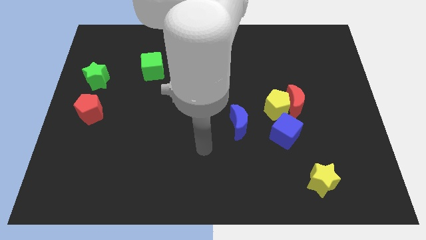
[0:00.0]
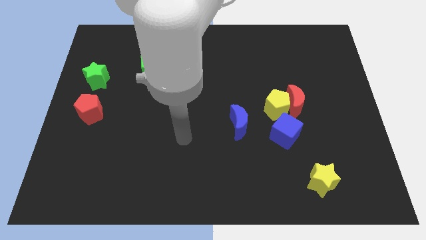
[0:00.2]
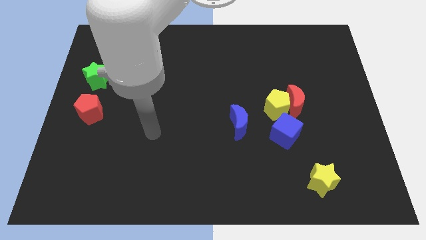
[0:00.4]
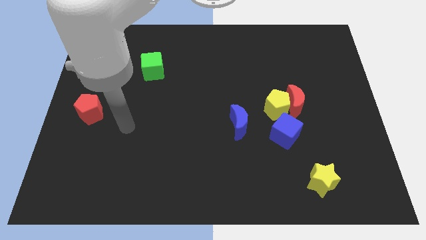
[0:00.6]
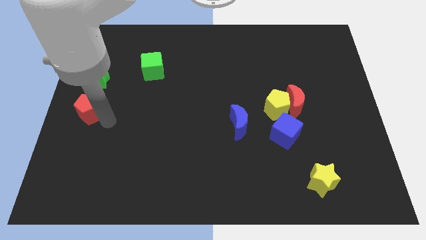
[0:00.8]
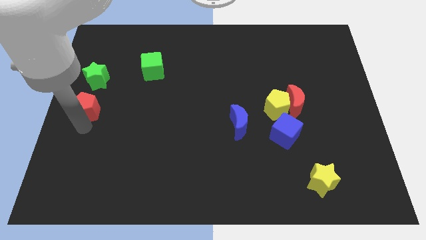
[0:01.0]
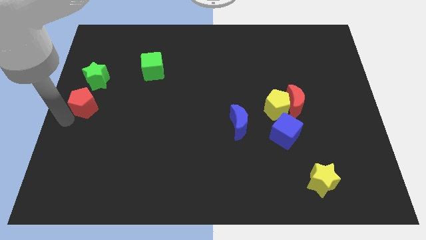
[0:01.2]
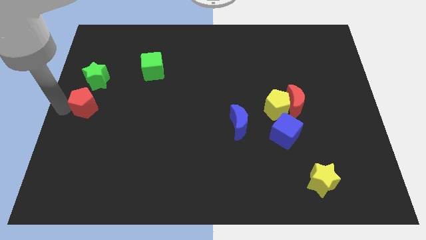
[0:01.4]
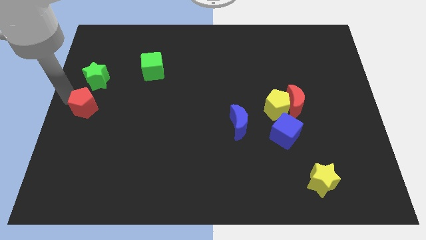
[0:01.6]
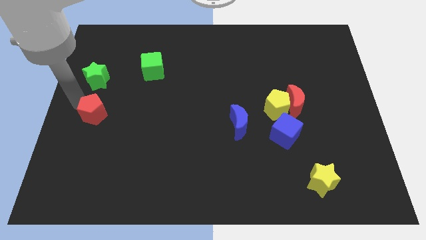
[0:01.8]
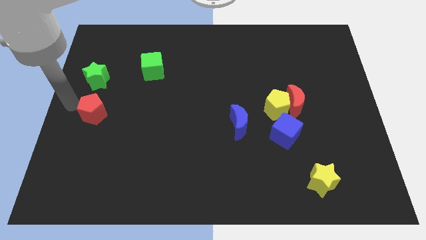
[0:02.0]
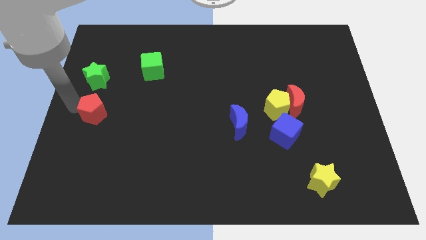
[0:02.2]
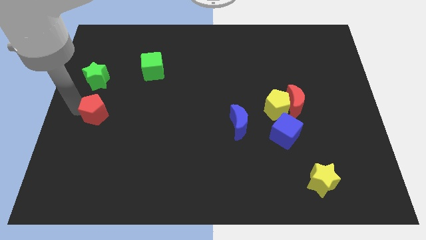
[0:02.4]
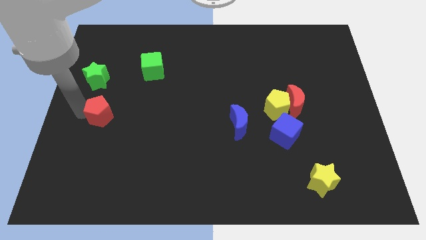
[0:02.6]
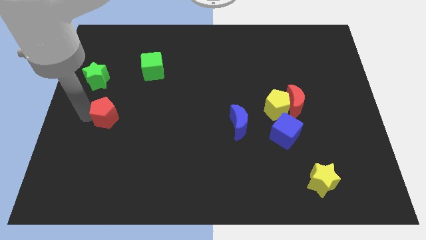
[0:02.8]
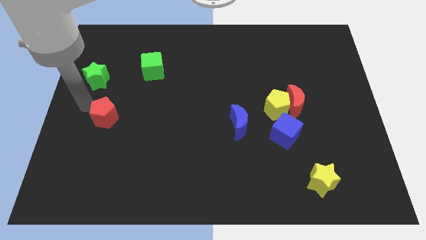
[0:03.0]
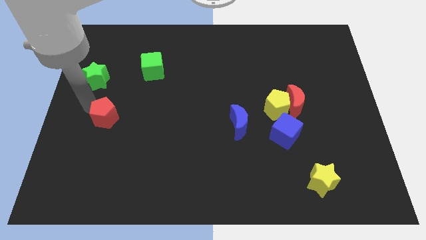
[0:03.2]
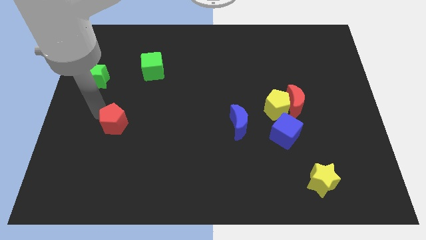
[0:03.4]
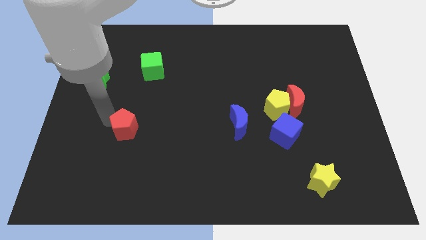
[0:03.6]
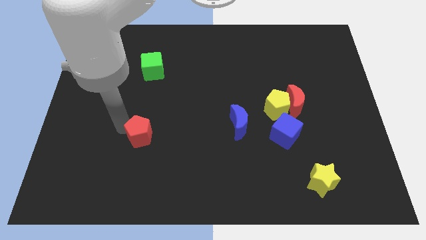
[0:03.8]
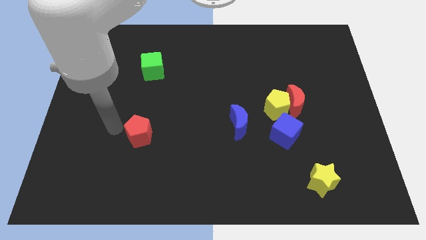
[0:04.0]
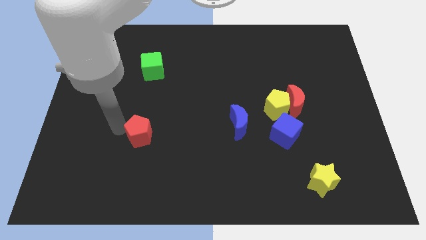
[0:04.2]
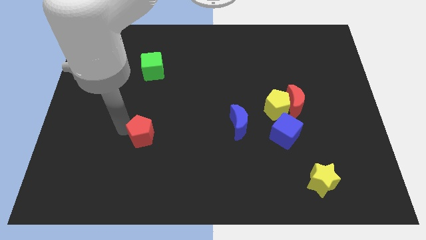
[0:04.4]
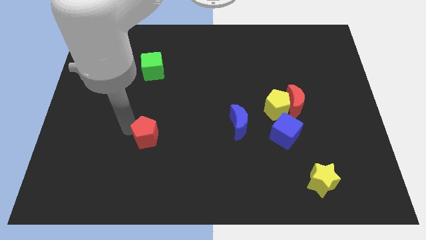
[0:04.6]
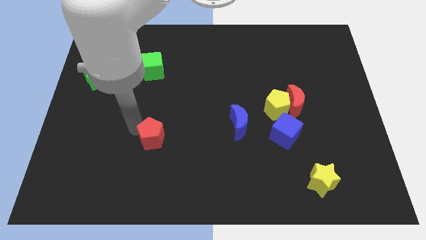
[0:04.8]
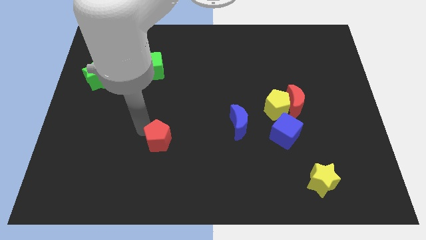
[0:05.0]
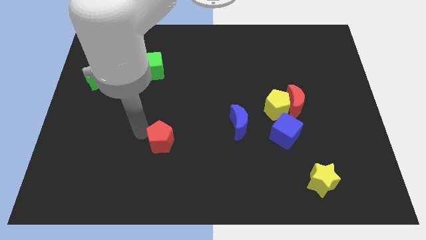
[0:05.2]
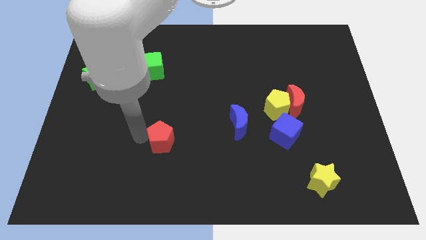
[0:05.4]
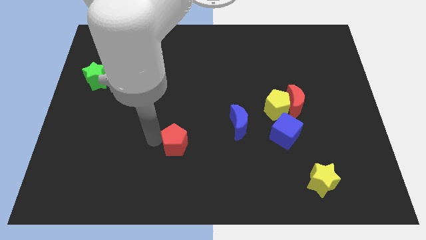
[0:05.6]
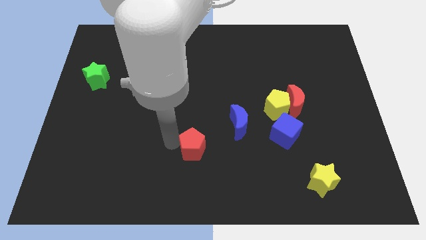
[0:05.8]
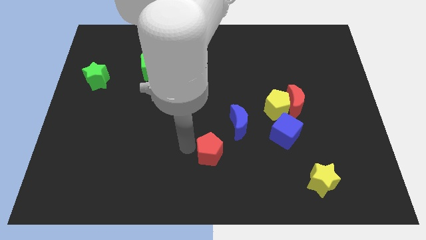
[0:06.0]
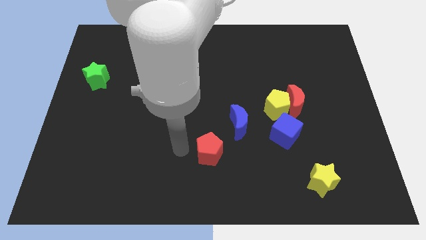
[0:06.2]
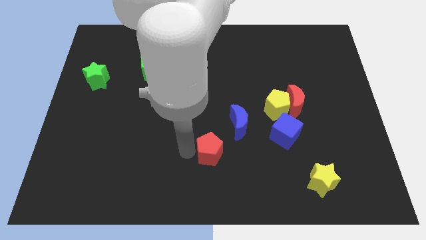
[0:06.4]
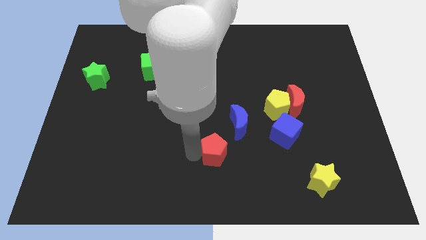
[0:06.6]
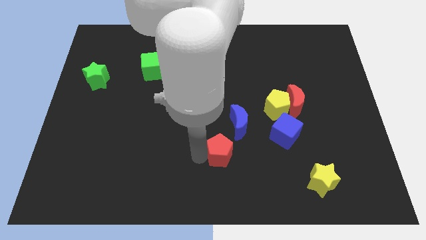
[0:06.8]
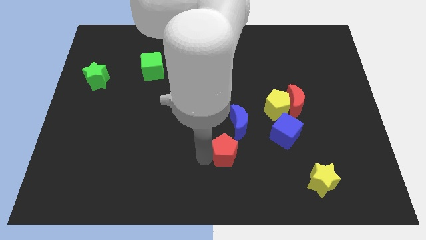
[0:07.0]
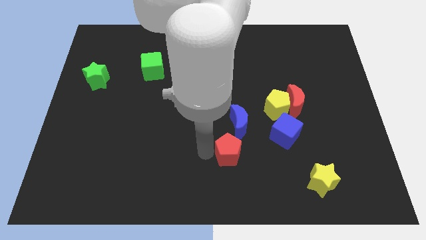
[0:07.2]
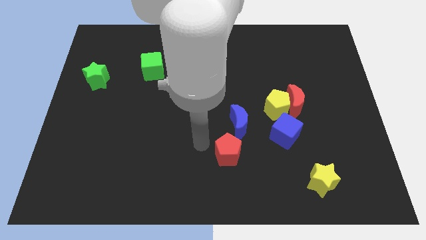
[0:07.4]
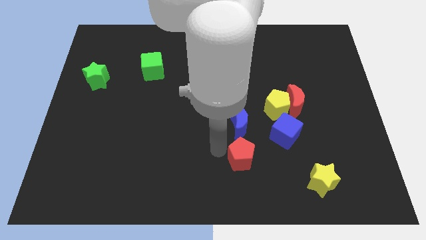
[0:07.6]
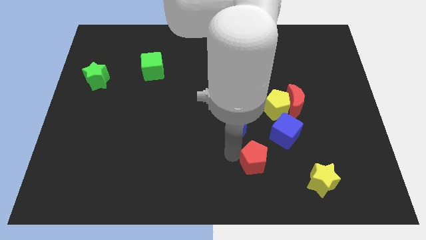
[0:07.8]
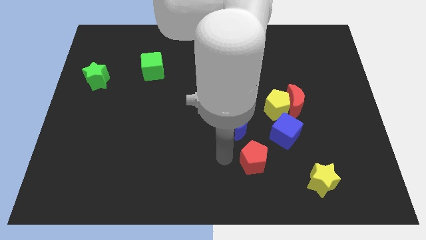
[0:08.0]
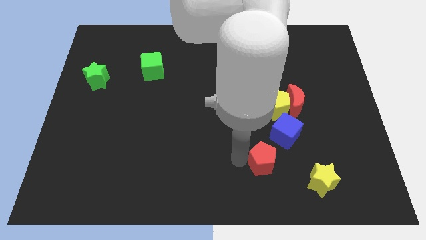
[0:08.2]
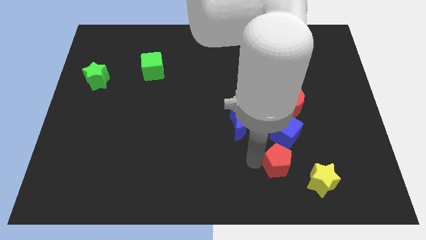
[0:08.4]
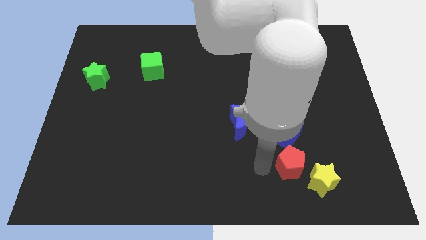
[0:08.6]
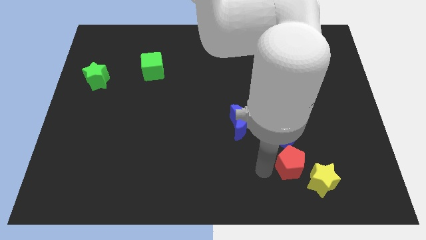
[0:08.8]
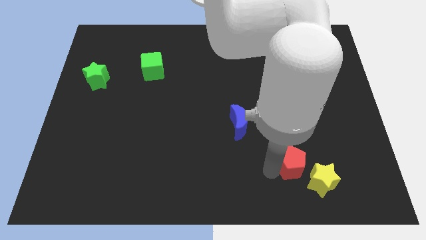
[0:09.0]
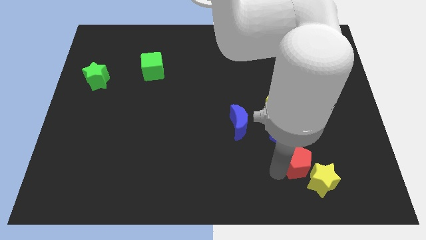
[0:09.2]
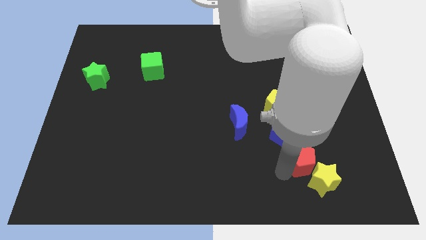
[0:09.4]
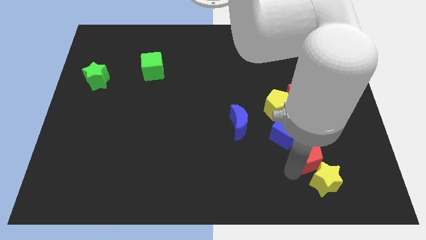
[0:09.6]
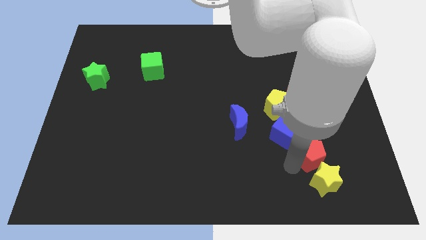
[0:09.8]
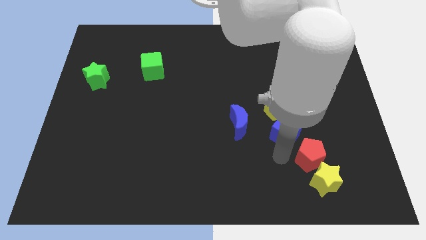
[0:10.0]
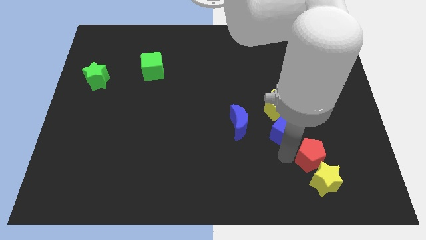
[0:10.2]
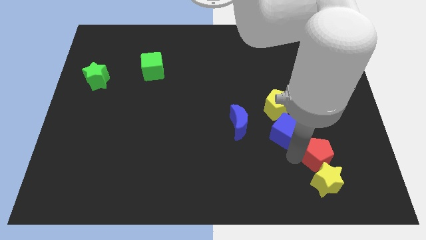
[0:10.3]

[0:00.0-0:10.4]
slide the red pentagon to the top right of the yellow star

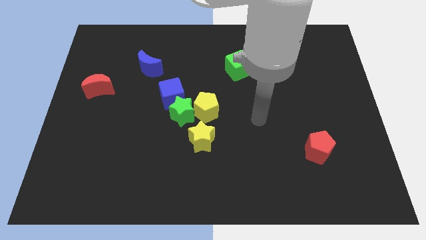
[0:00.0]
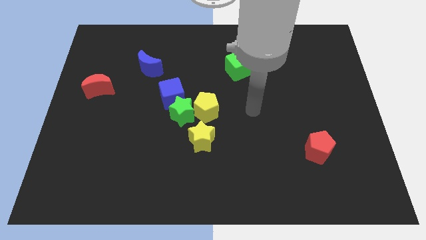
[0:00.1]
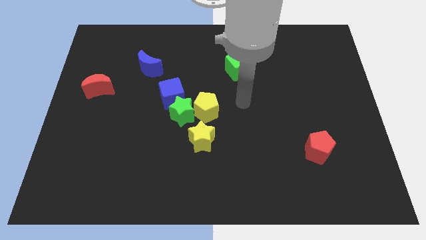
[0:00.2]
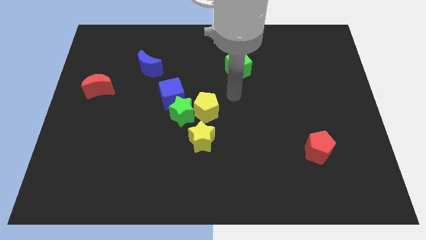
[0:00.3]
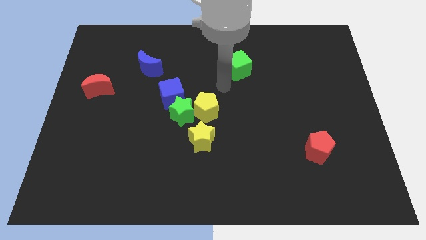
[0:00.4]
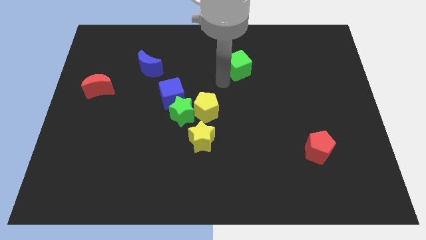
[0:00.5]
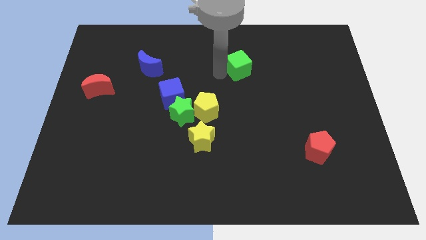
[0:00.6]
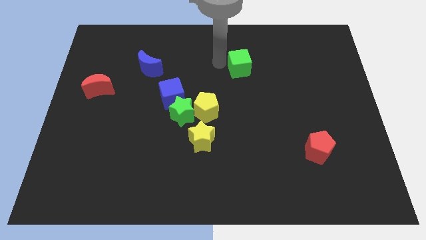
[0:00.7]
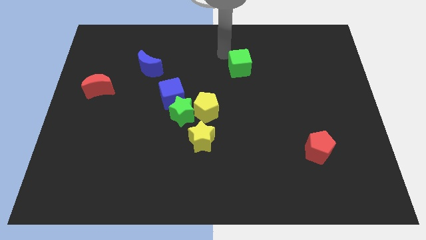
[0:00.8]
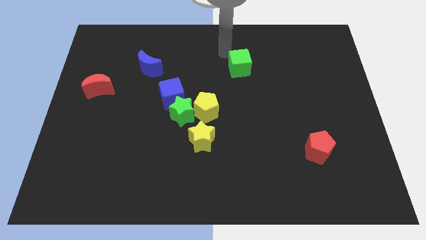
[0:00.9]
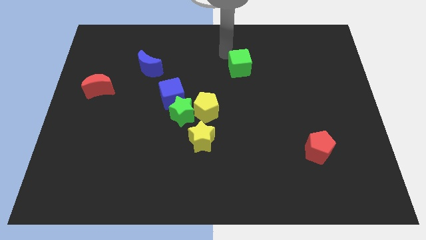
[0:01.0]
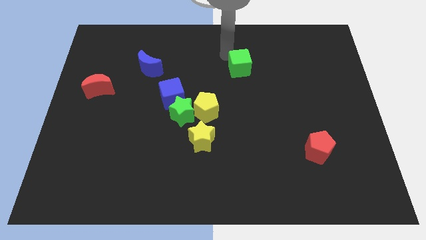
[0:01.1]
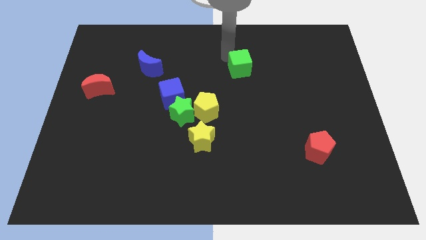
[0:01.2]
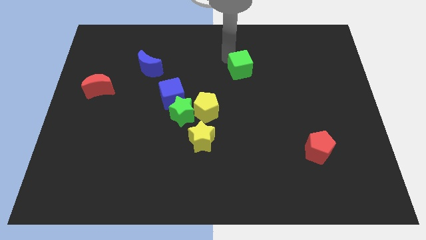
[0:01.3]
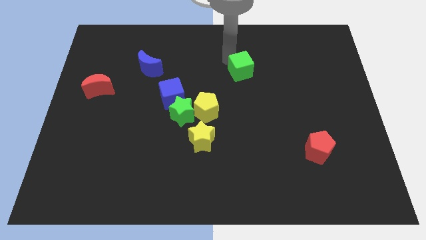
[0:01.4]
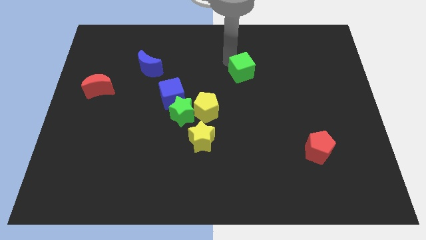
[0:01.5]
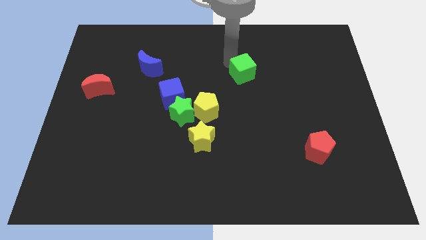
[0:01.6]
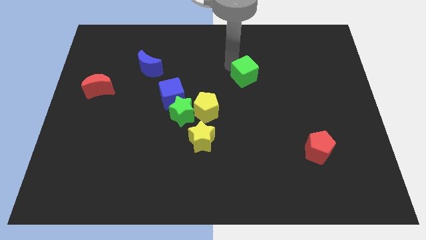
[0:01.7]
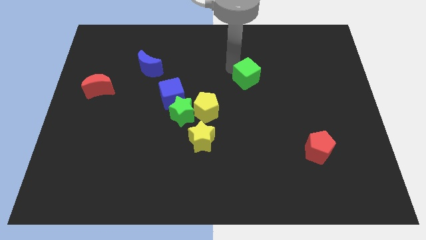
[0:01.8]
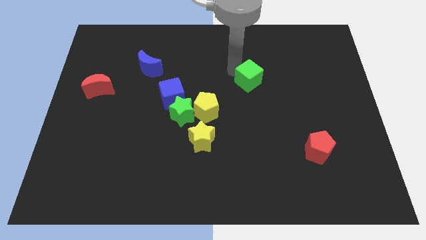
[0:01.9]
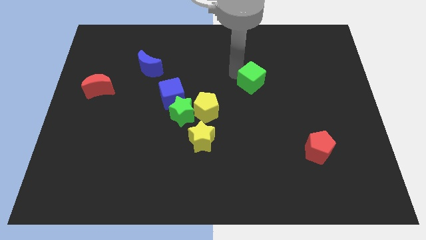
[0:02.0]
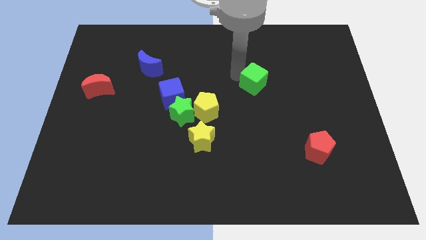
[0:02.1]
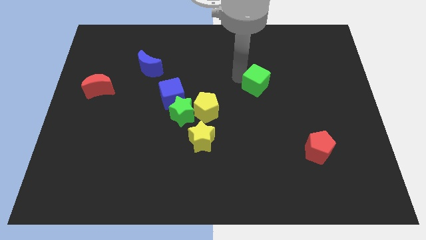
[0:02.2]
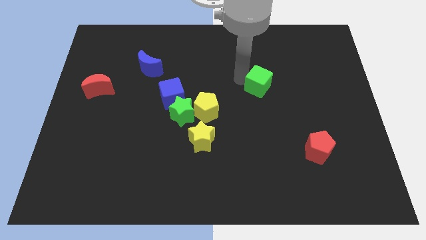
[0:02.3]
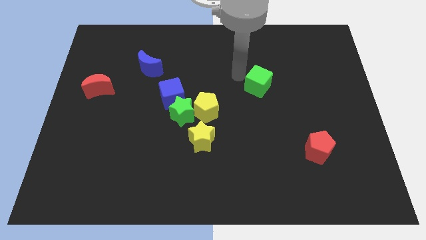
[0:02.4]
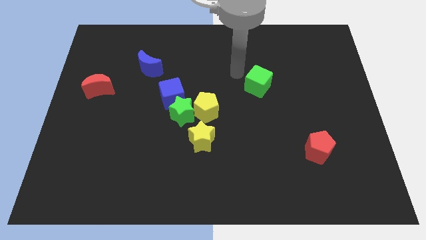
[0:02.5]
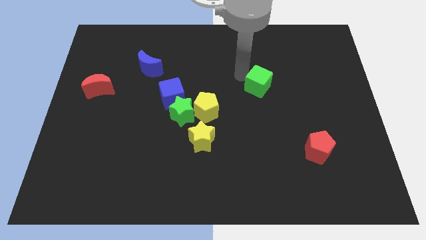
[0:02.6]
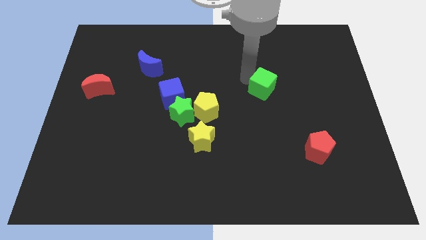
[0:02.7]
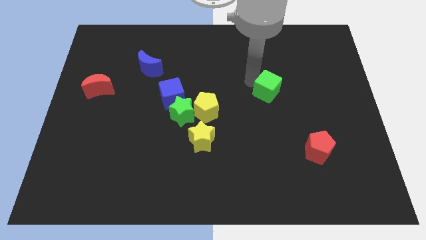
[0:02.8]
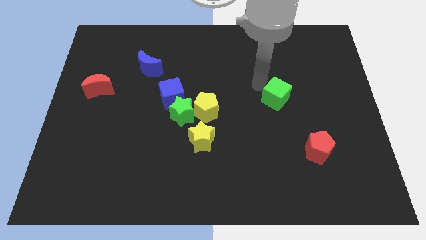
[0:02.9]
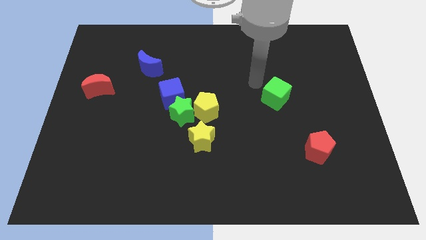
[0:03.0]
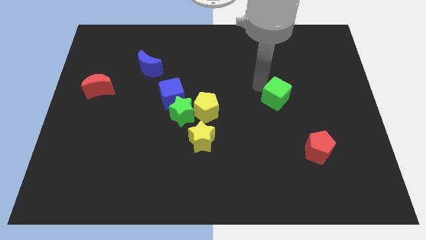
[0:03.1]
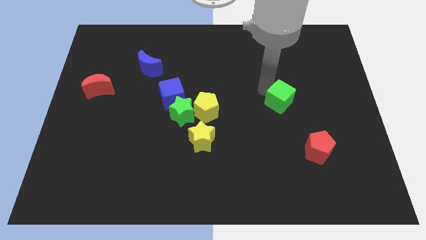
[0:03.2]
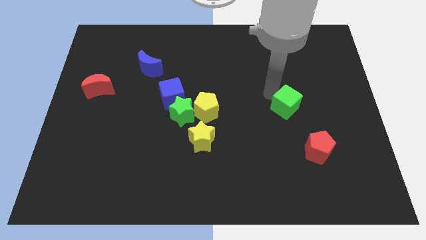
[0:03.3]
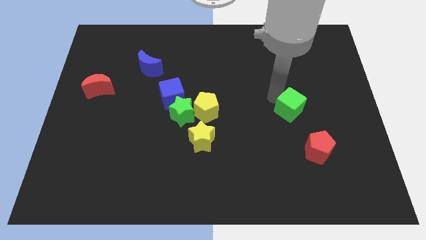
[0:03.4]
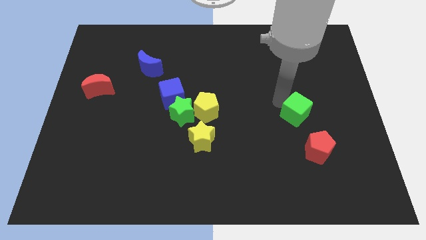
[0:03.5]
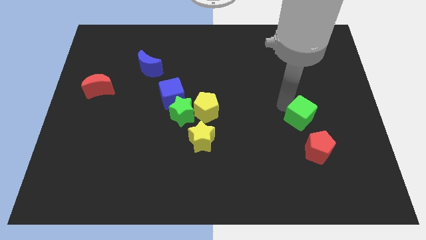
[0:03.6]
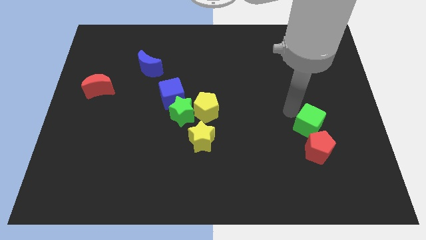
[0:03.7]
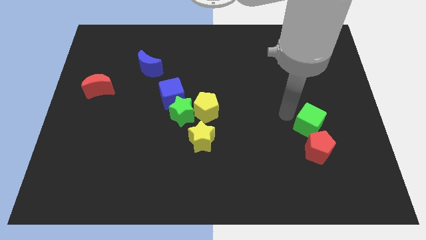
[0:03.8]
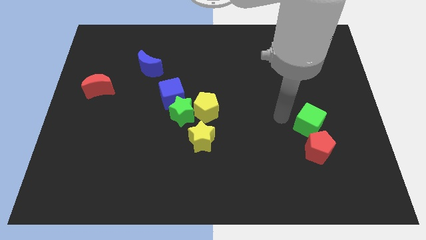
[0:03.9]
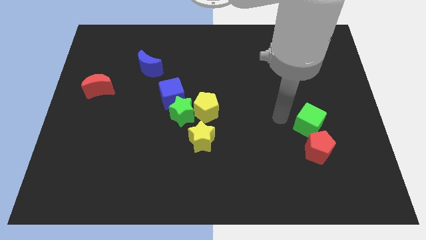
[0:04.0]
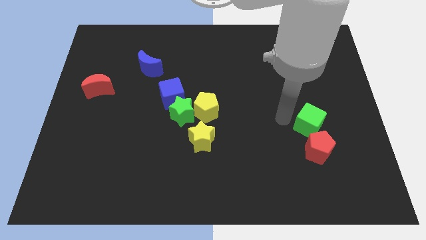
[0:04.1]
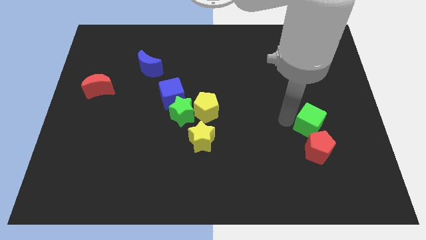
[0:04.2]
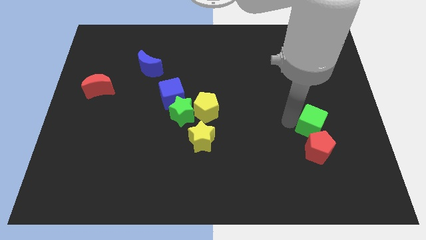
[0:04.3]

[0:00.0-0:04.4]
push the green cube to the top right of the red pentagon
